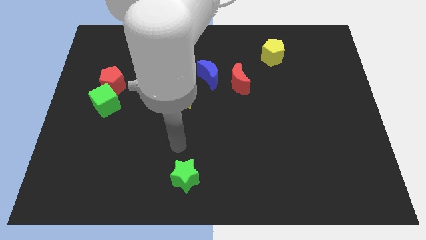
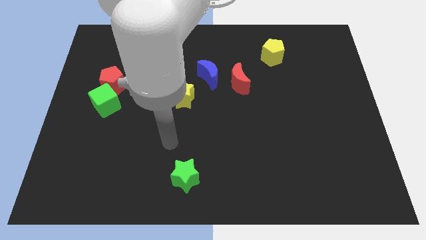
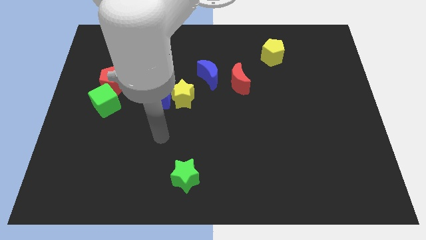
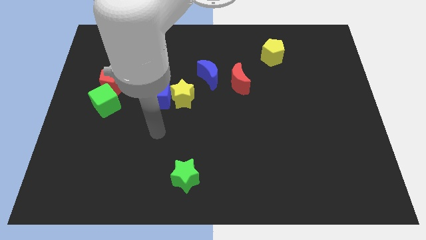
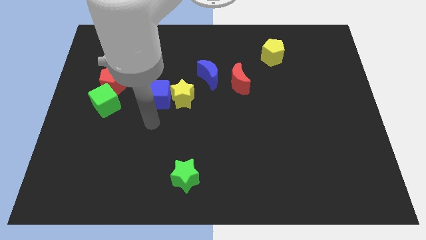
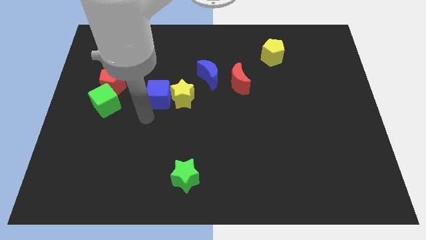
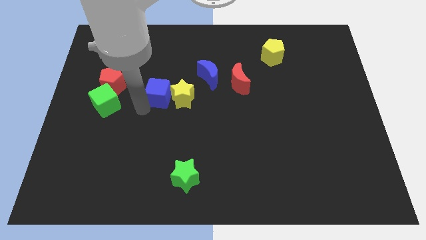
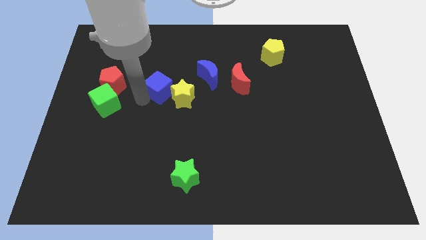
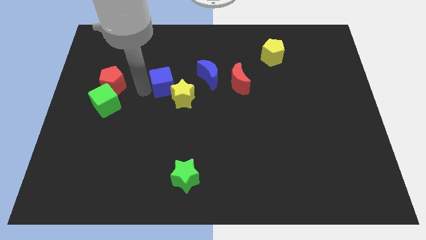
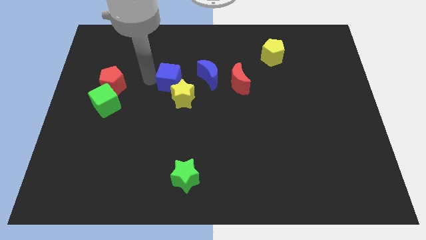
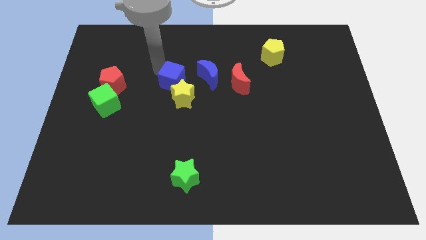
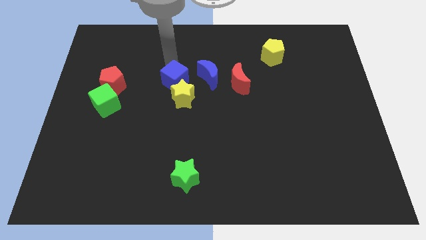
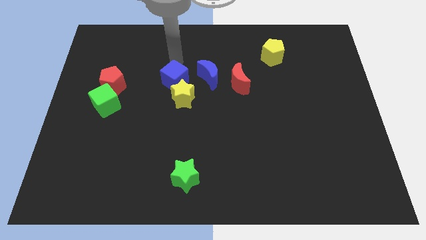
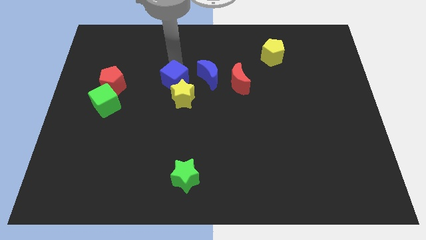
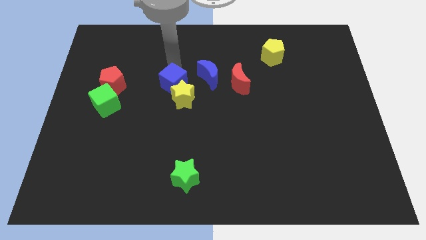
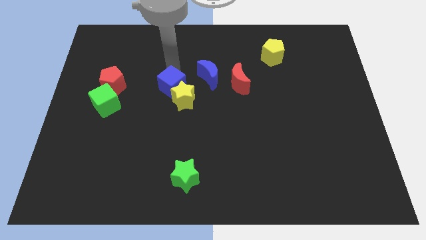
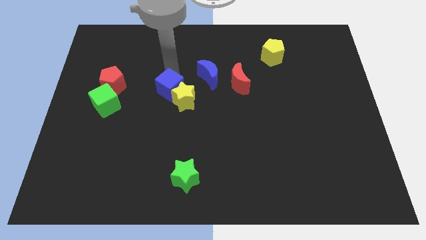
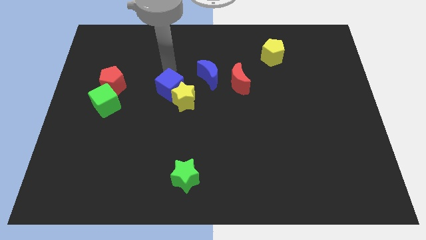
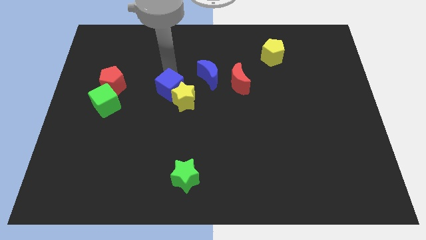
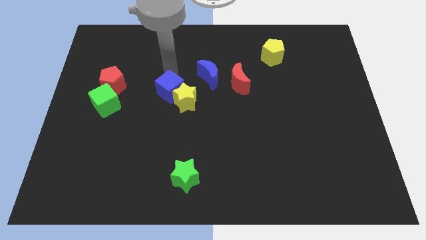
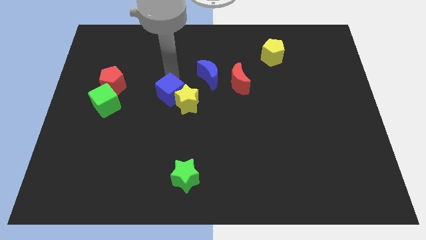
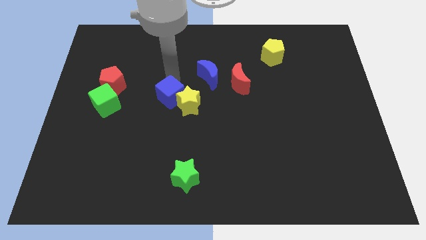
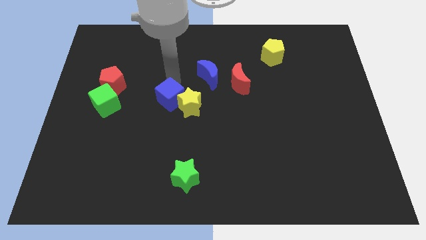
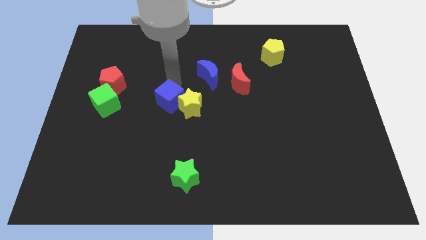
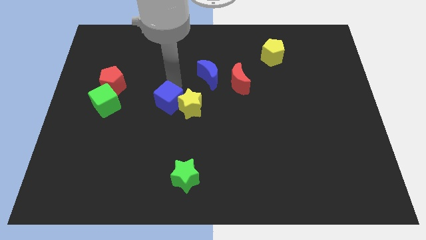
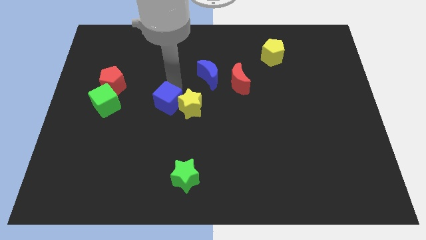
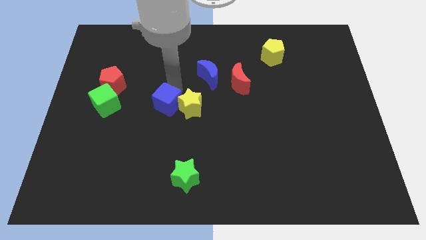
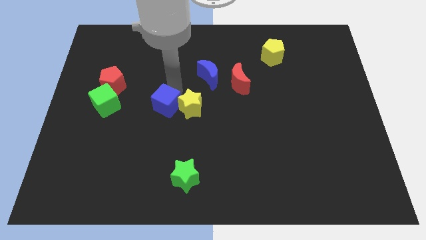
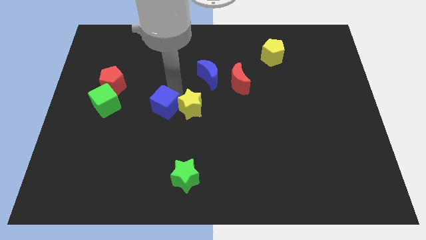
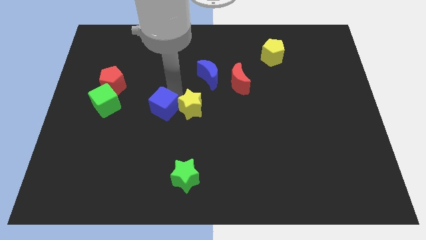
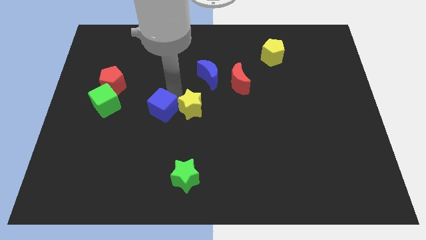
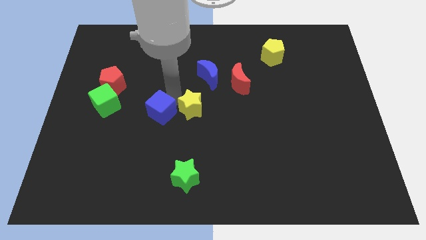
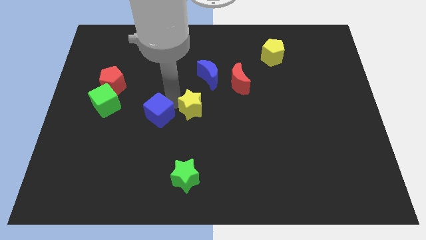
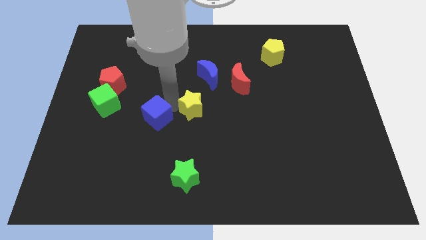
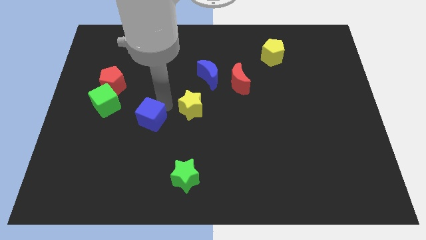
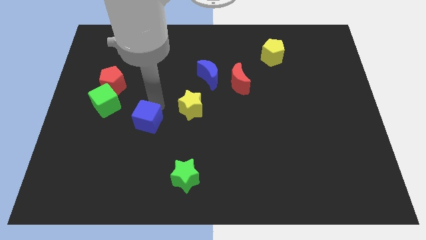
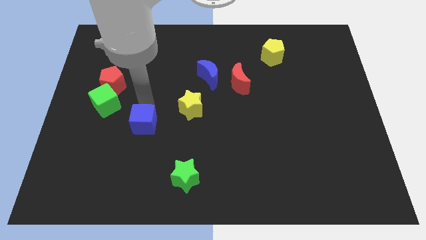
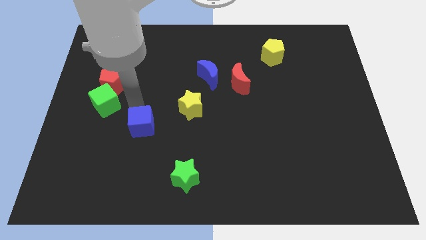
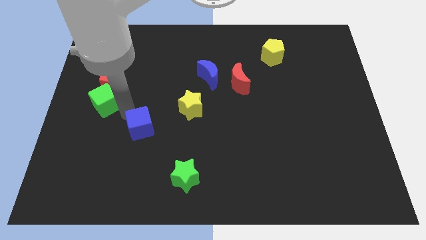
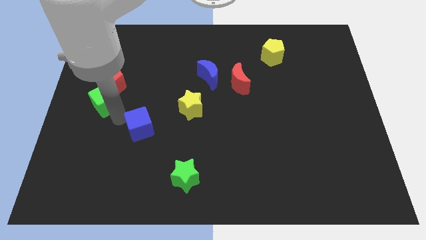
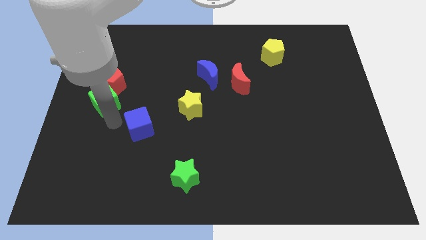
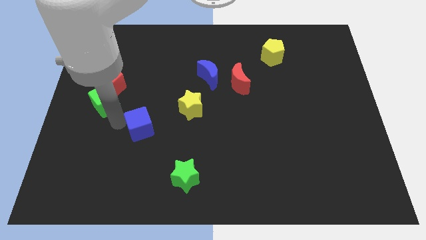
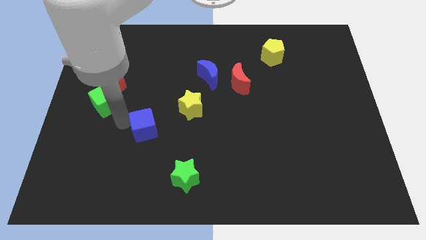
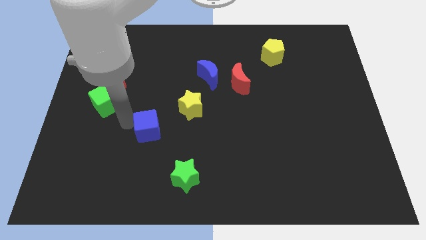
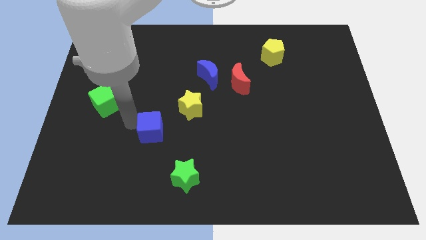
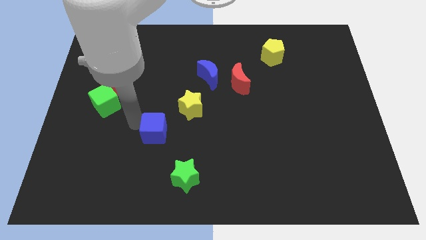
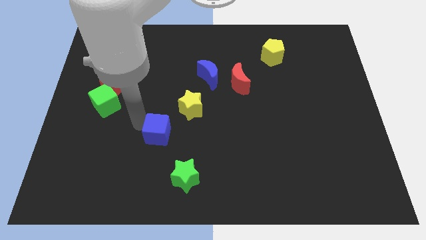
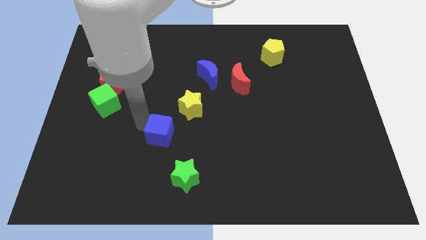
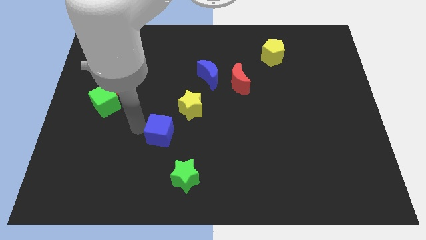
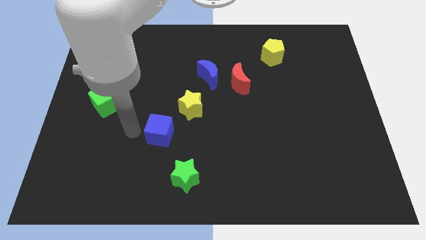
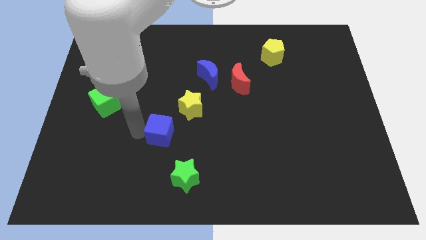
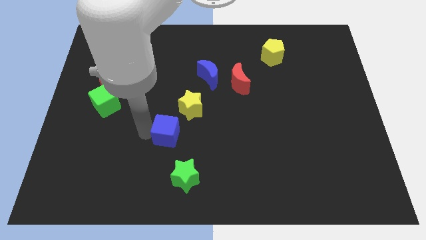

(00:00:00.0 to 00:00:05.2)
push the blue cube to the top of the green star

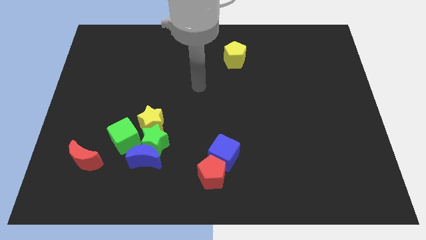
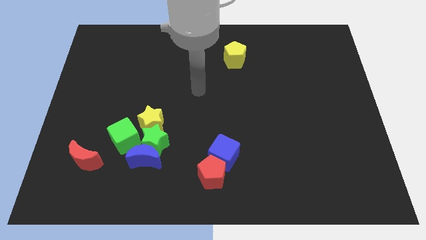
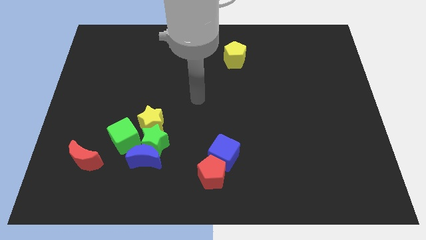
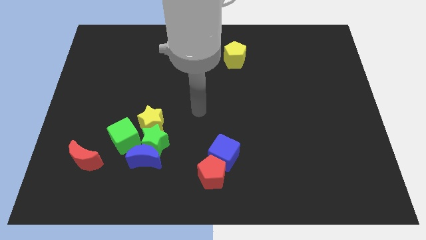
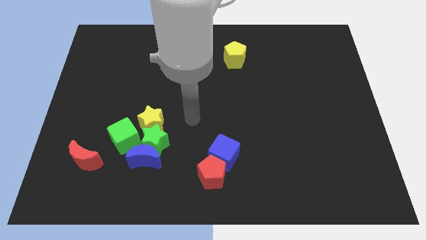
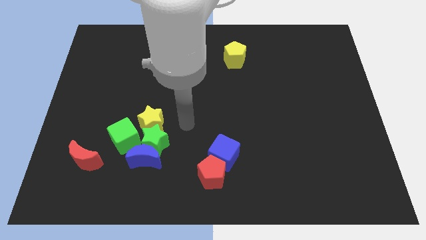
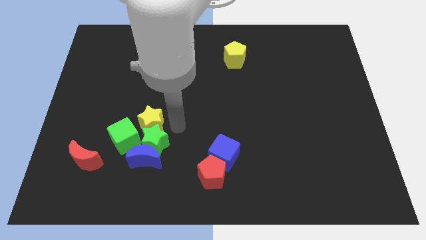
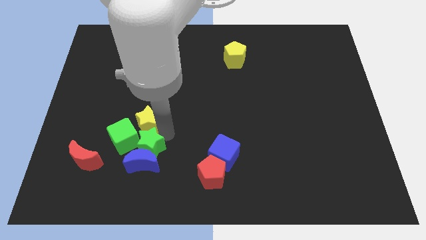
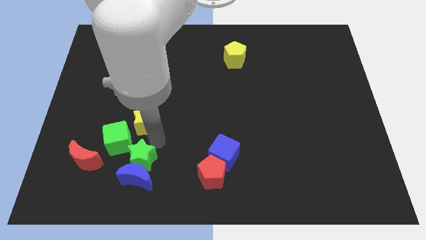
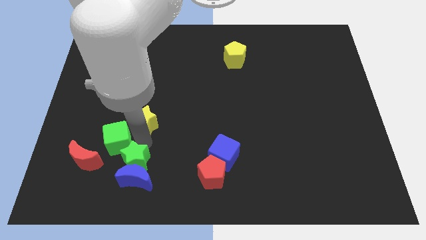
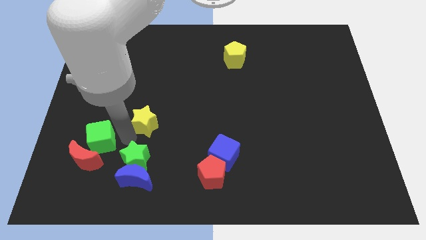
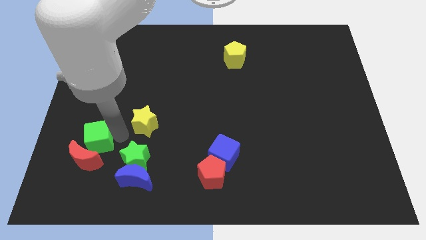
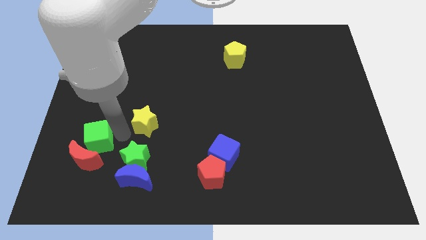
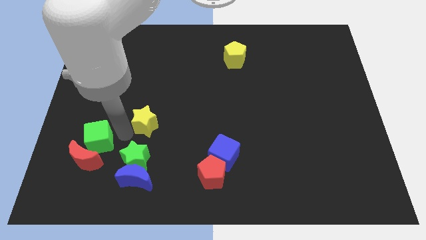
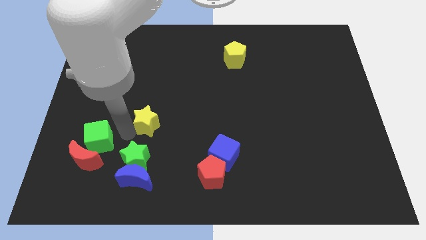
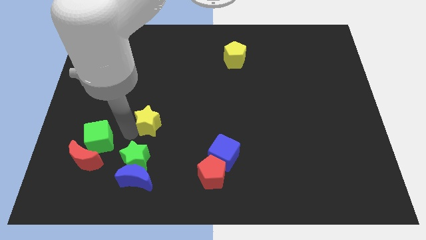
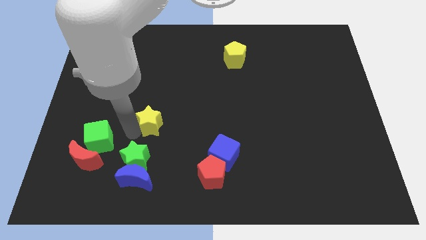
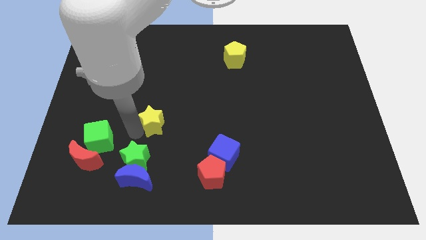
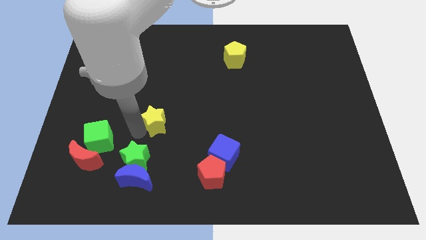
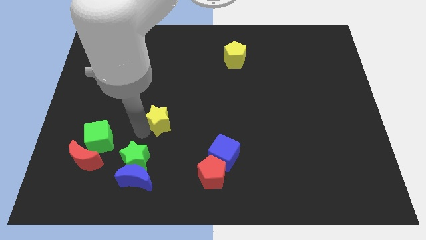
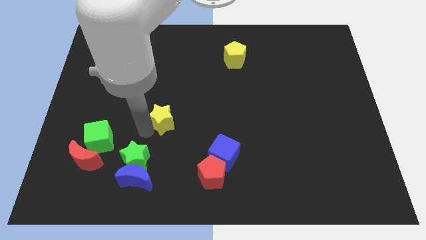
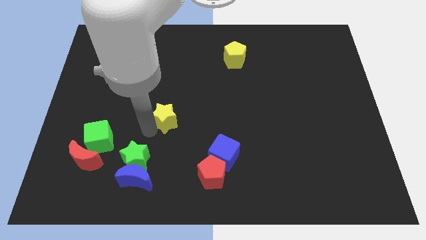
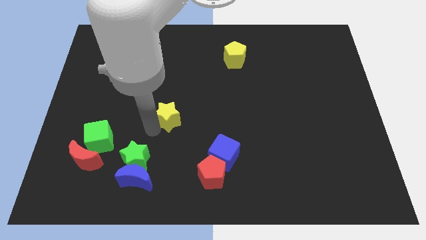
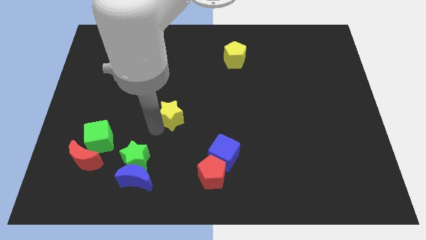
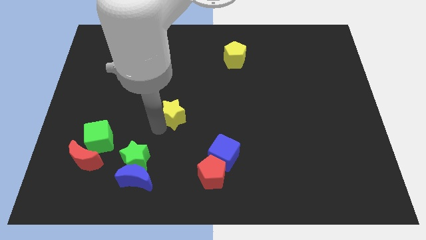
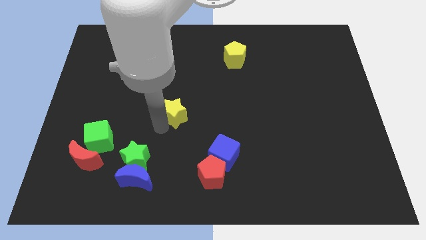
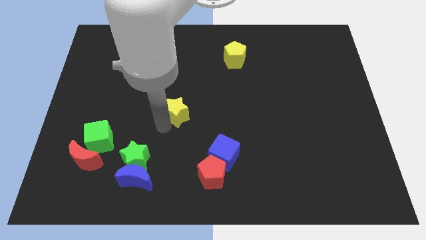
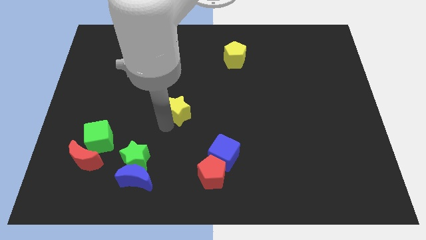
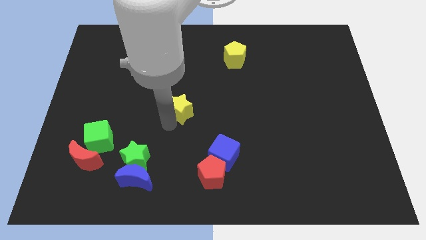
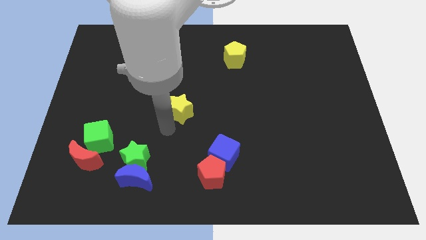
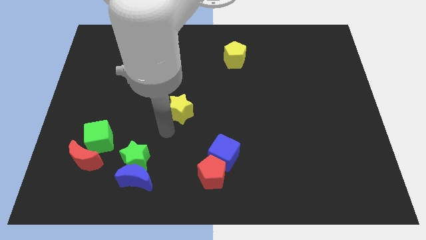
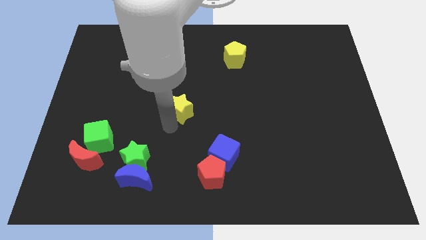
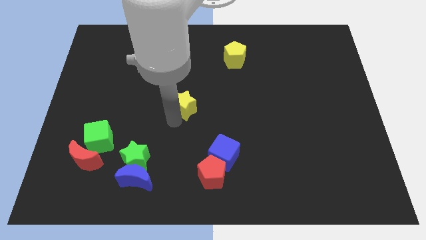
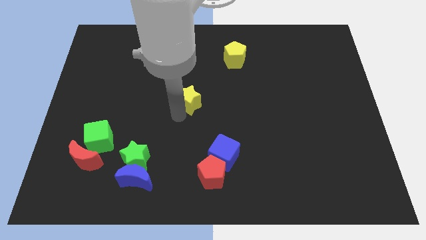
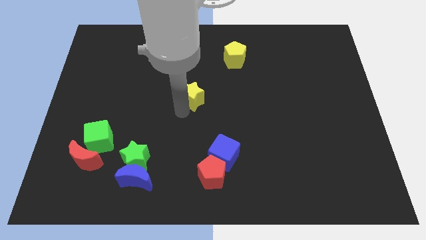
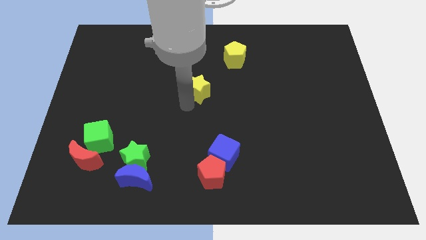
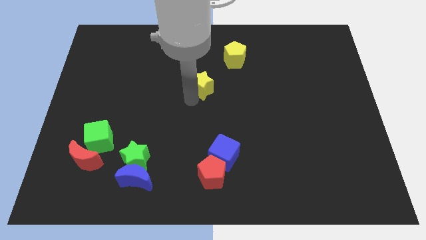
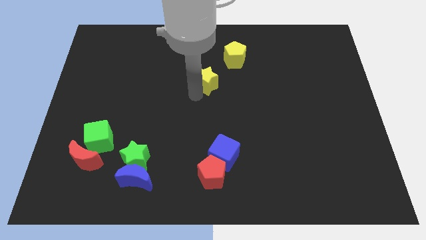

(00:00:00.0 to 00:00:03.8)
push the yellow star to the bottom left of the yellow pentagon
